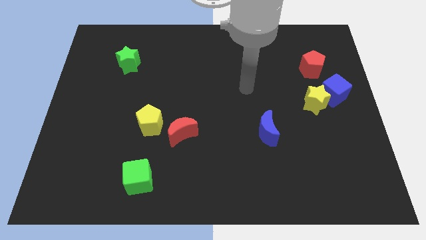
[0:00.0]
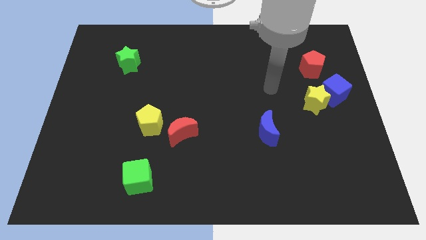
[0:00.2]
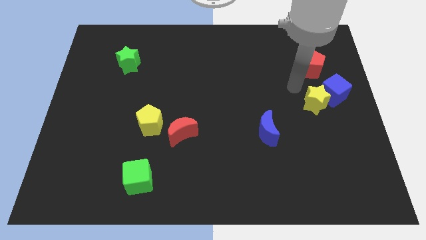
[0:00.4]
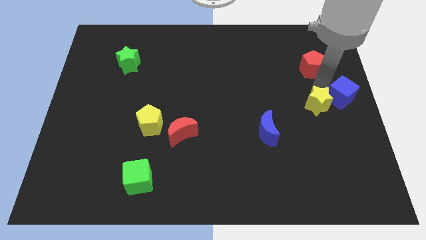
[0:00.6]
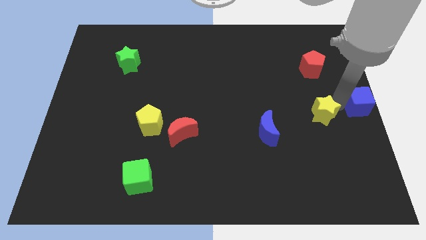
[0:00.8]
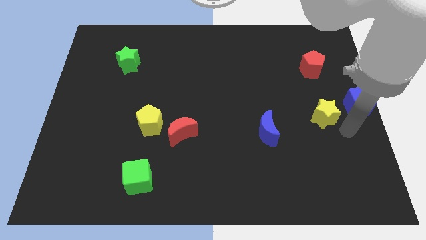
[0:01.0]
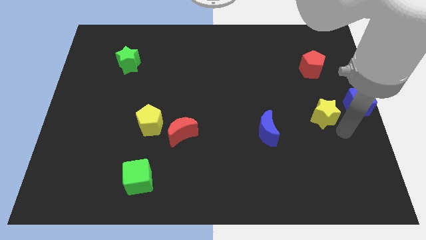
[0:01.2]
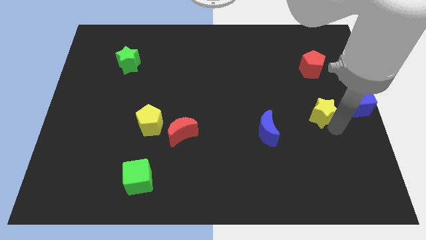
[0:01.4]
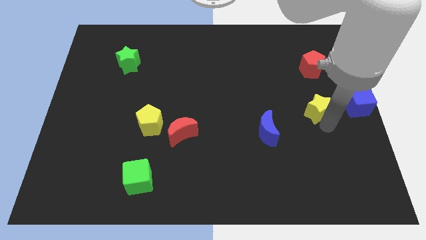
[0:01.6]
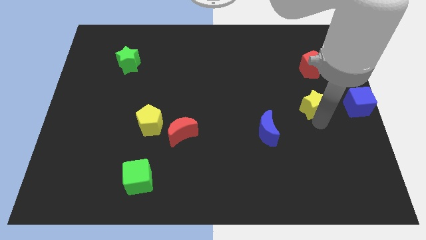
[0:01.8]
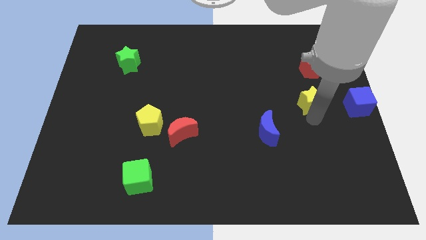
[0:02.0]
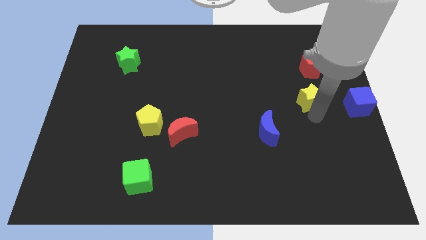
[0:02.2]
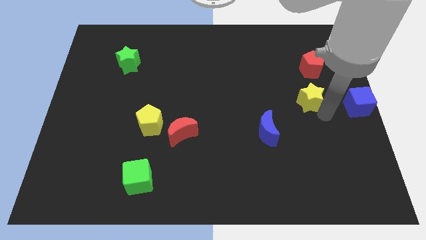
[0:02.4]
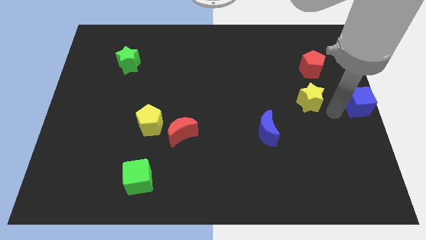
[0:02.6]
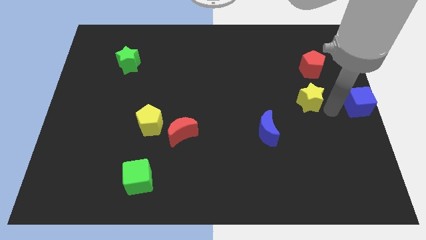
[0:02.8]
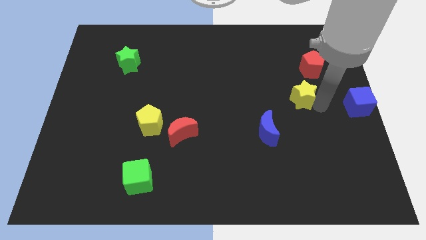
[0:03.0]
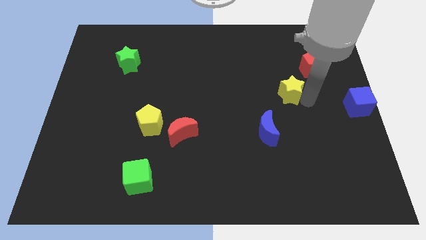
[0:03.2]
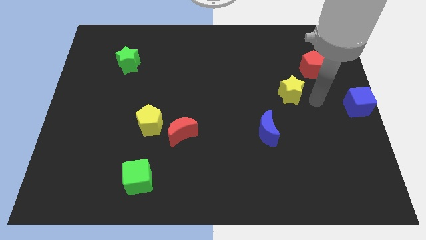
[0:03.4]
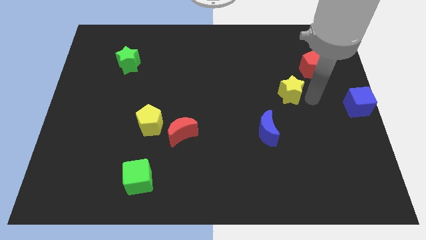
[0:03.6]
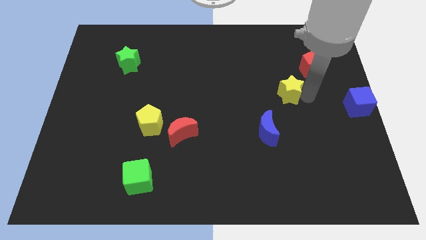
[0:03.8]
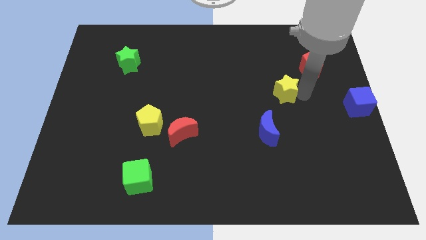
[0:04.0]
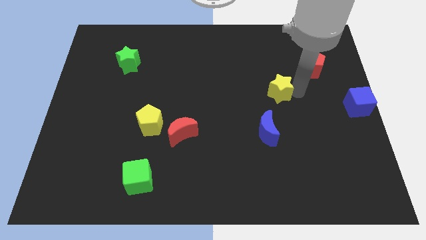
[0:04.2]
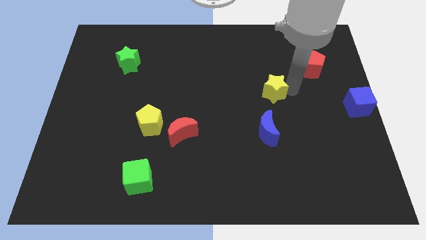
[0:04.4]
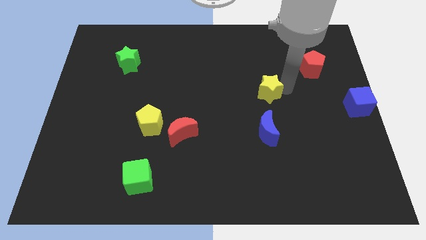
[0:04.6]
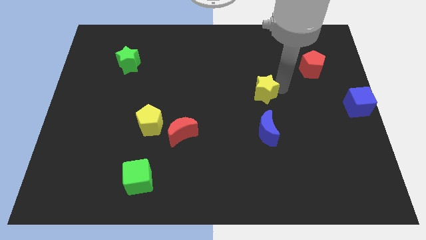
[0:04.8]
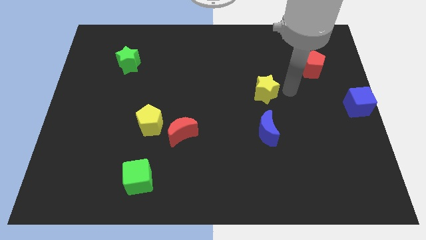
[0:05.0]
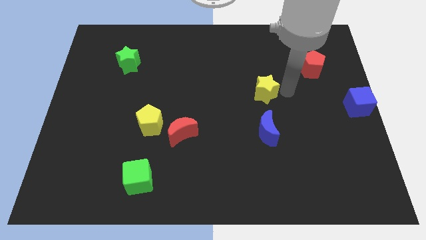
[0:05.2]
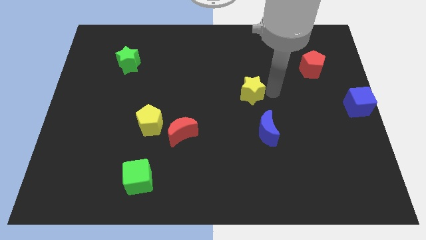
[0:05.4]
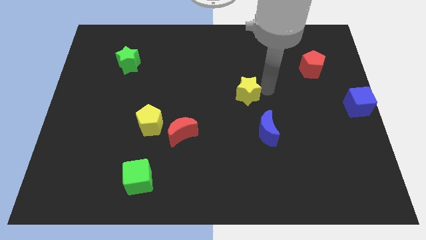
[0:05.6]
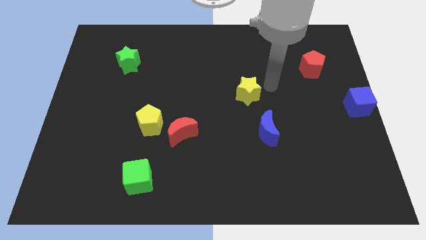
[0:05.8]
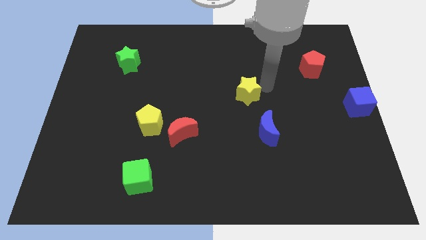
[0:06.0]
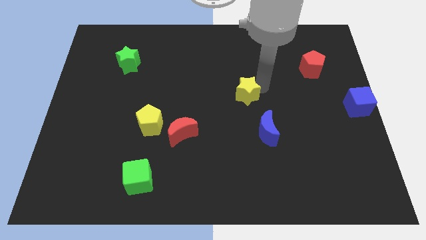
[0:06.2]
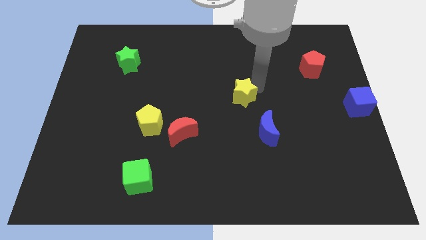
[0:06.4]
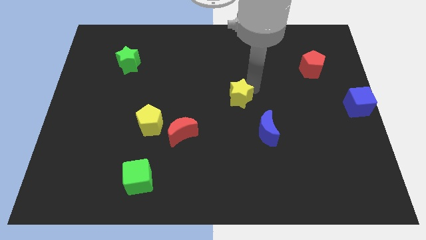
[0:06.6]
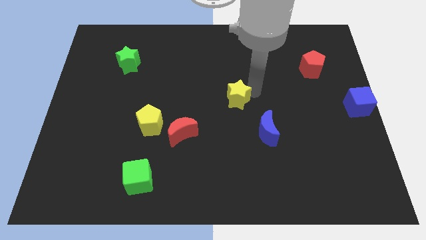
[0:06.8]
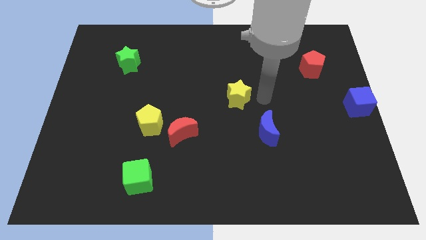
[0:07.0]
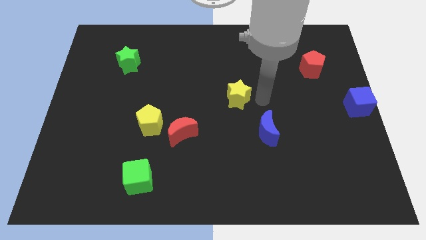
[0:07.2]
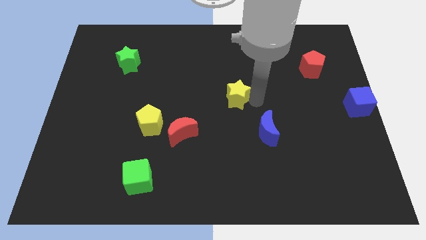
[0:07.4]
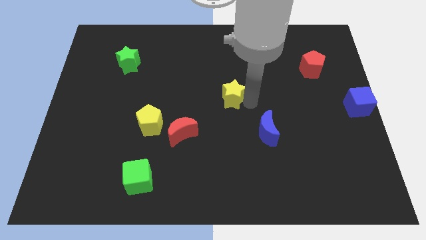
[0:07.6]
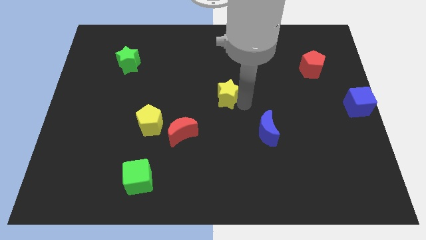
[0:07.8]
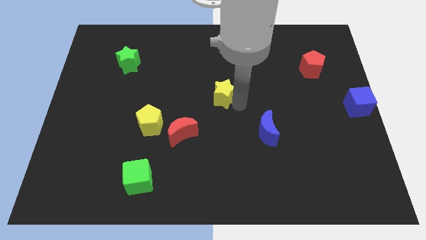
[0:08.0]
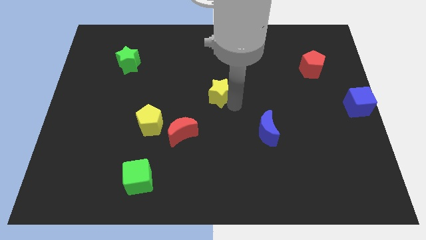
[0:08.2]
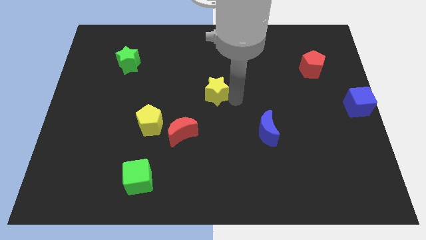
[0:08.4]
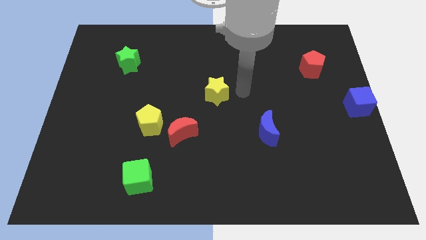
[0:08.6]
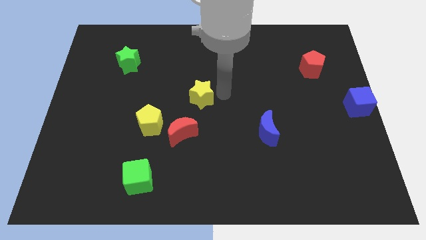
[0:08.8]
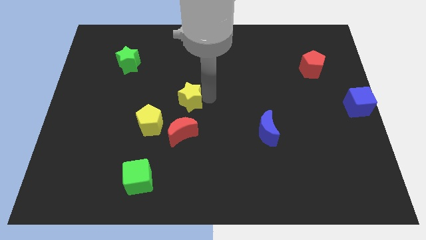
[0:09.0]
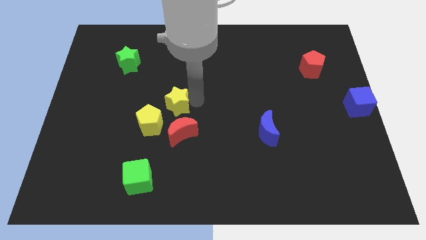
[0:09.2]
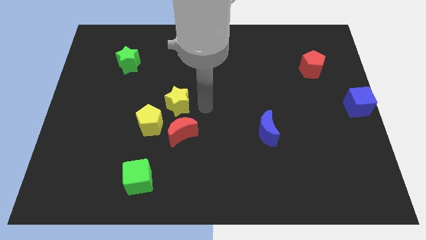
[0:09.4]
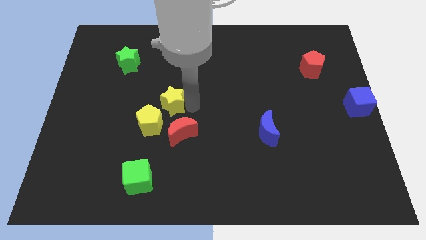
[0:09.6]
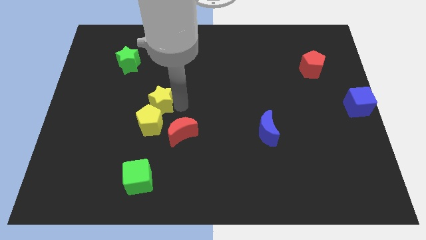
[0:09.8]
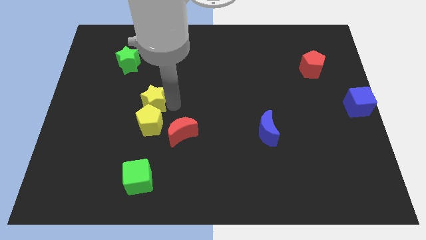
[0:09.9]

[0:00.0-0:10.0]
move the yellow star to the top left side of the yellow pentagon
